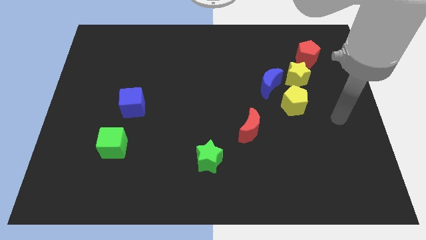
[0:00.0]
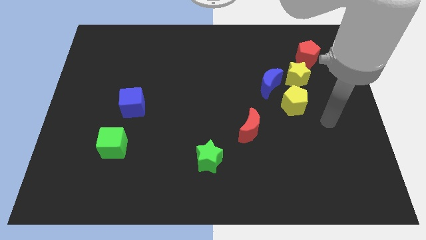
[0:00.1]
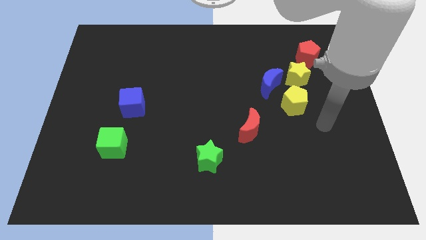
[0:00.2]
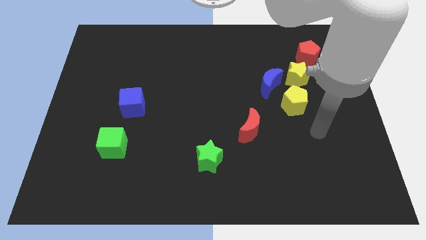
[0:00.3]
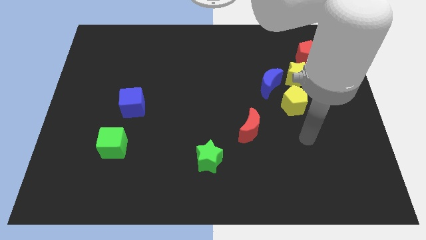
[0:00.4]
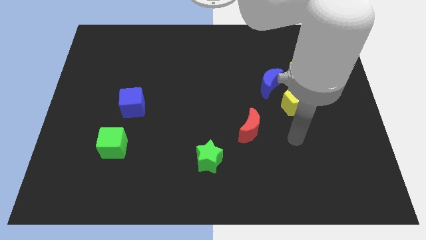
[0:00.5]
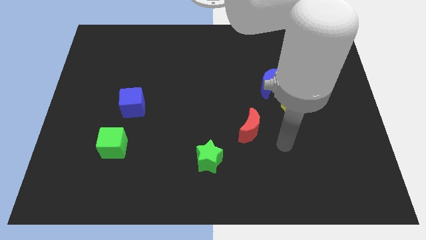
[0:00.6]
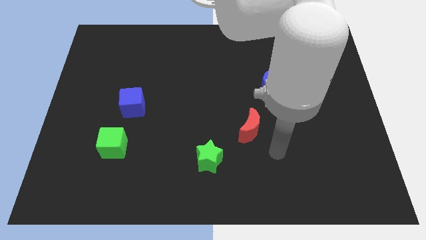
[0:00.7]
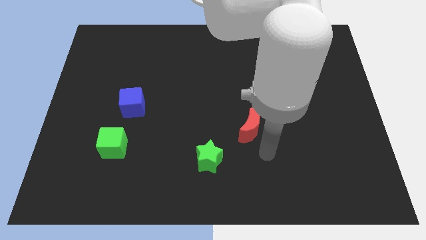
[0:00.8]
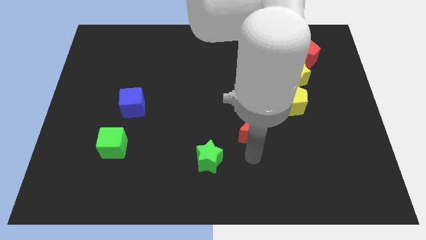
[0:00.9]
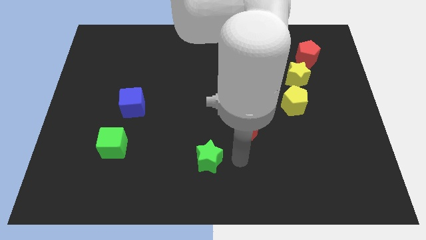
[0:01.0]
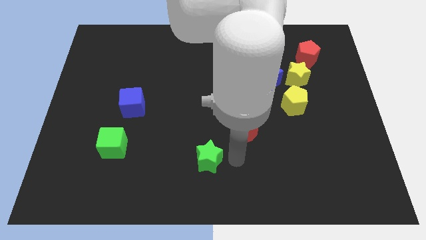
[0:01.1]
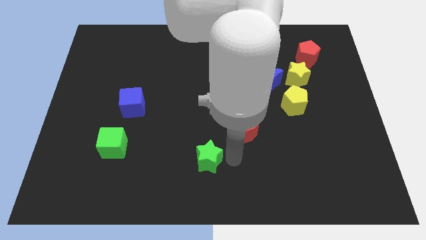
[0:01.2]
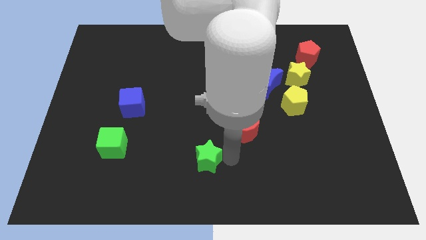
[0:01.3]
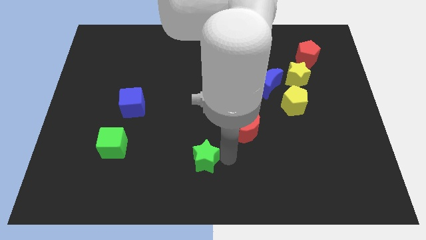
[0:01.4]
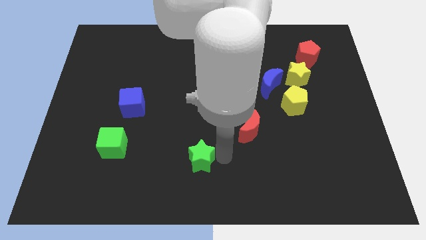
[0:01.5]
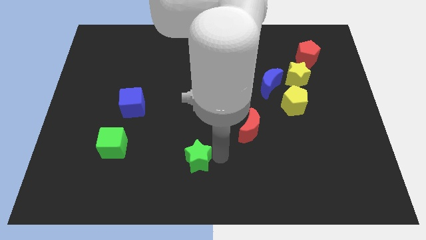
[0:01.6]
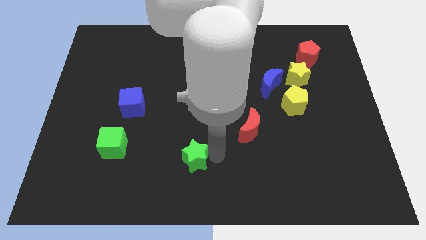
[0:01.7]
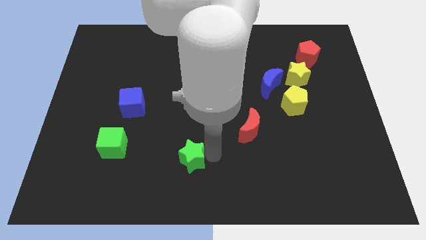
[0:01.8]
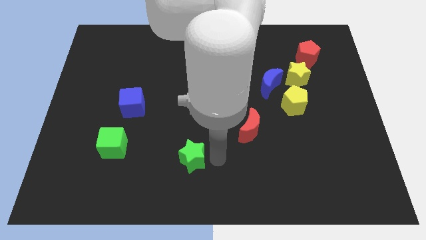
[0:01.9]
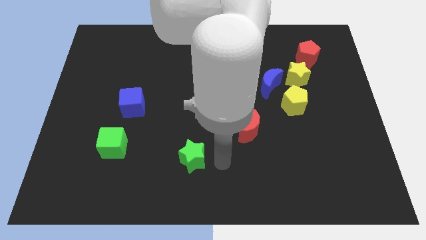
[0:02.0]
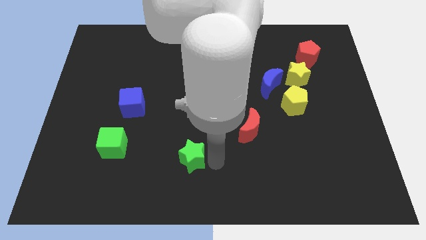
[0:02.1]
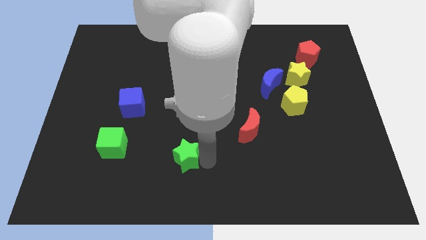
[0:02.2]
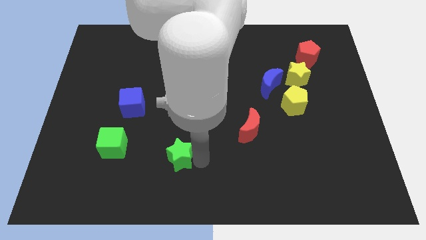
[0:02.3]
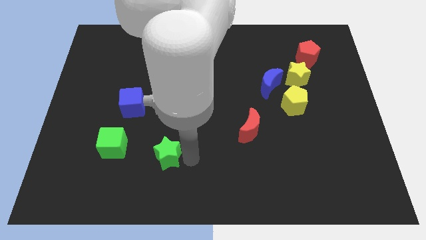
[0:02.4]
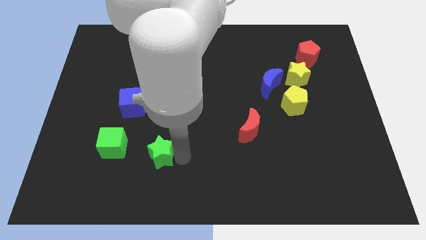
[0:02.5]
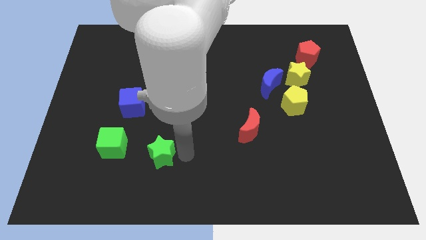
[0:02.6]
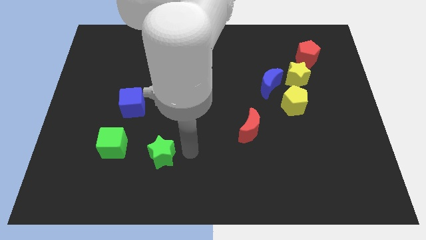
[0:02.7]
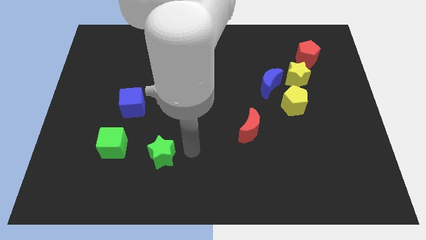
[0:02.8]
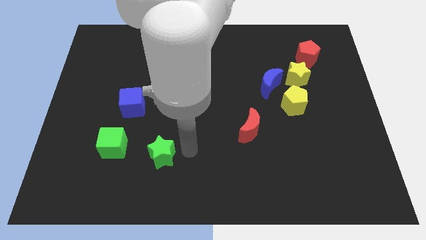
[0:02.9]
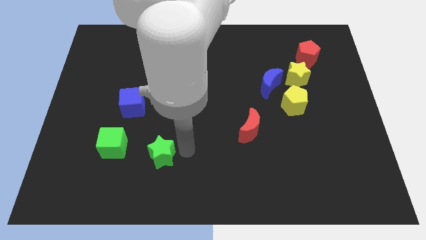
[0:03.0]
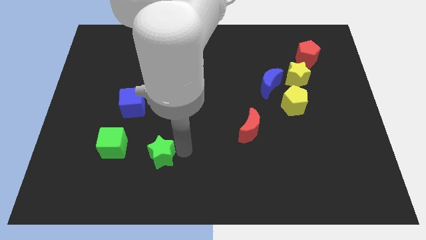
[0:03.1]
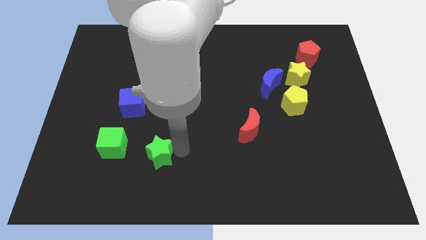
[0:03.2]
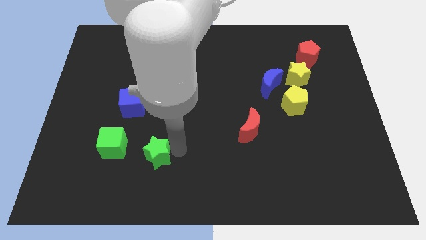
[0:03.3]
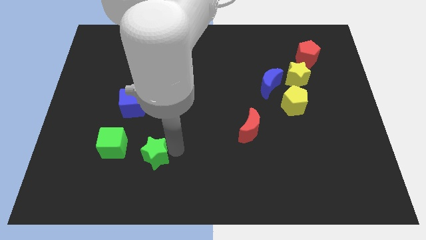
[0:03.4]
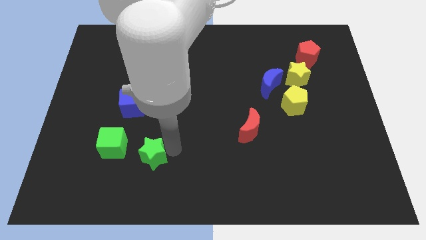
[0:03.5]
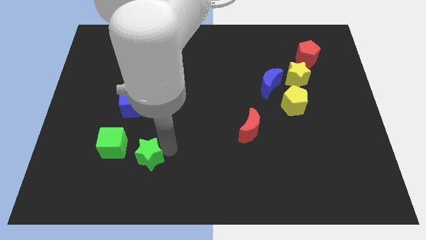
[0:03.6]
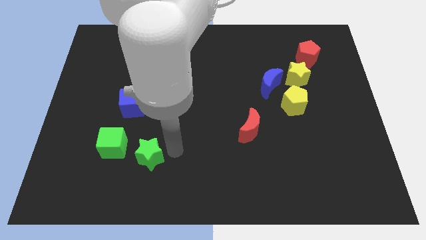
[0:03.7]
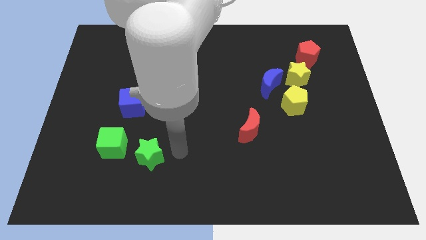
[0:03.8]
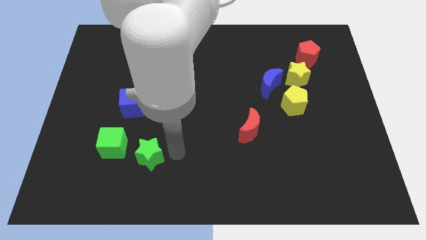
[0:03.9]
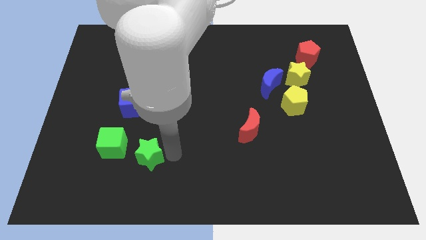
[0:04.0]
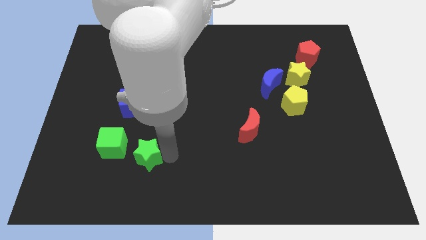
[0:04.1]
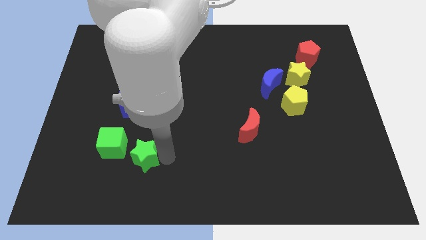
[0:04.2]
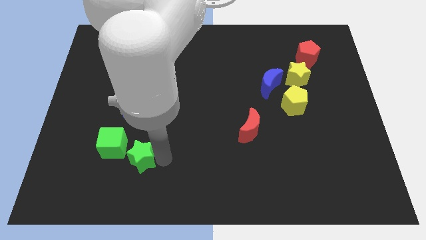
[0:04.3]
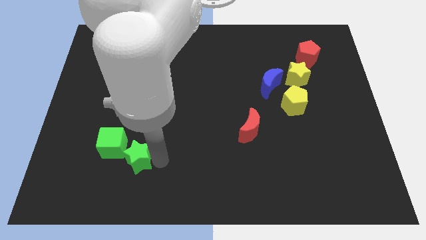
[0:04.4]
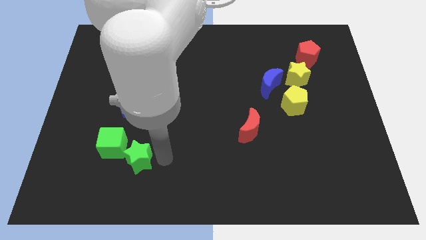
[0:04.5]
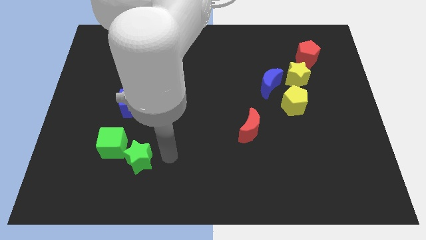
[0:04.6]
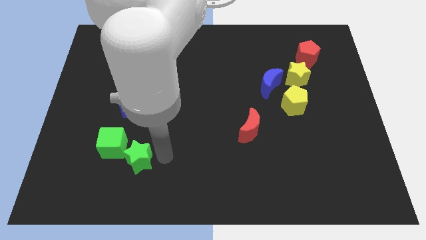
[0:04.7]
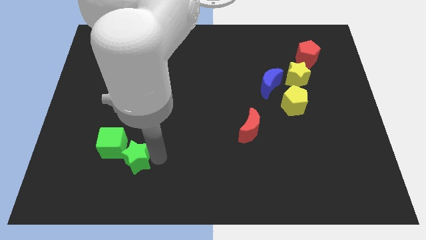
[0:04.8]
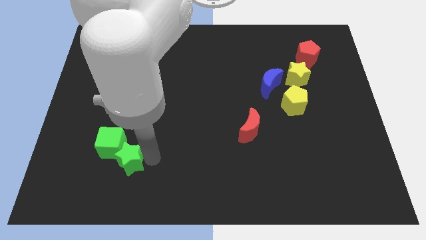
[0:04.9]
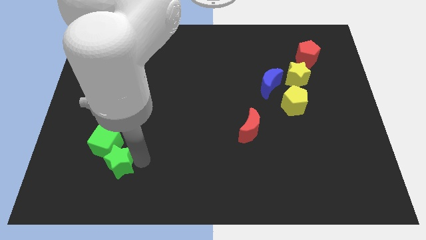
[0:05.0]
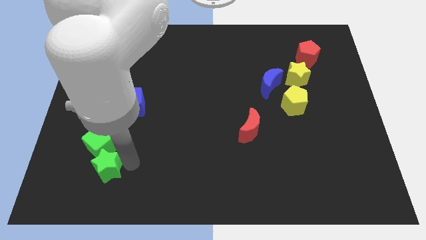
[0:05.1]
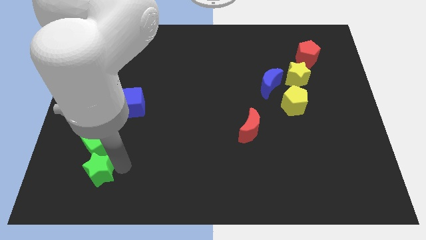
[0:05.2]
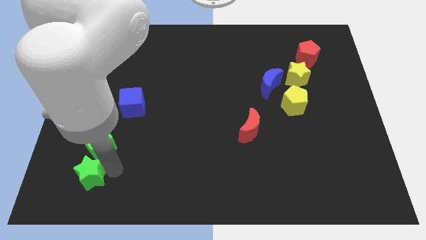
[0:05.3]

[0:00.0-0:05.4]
slide the green star diagonally down and to the left of the green cube

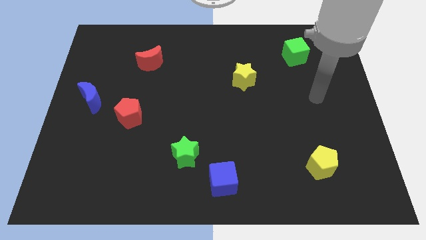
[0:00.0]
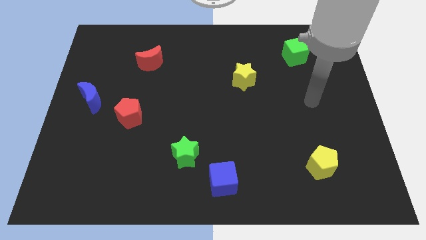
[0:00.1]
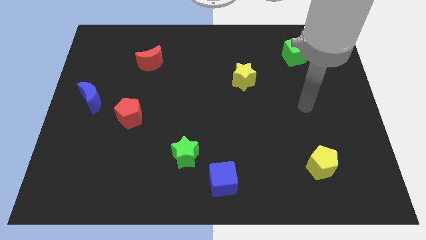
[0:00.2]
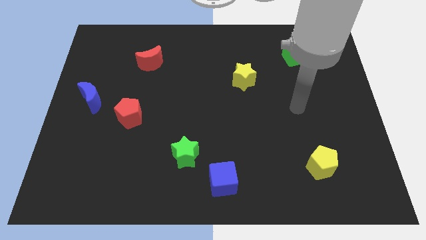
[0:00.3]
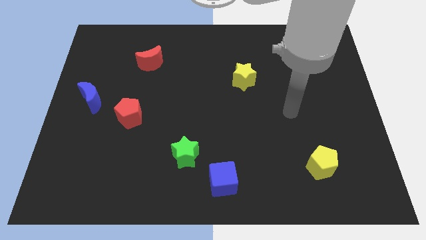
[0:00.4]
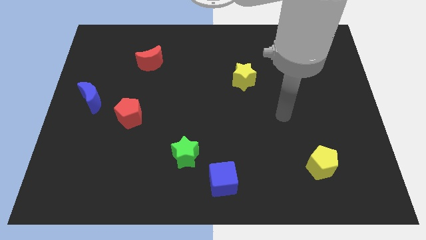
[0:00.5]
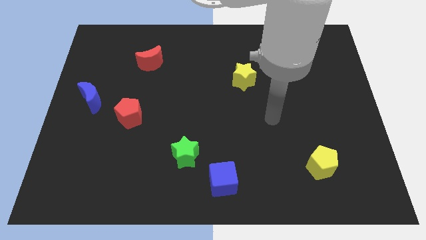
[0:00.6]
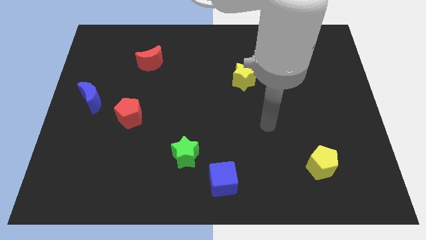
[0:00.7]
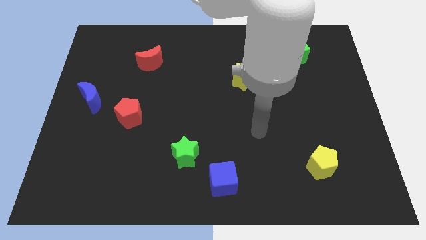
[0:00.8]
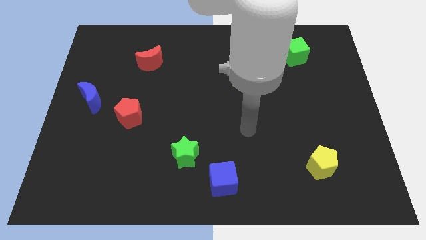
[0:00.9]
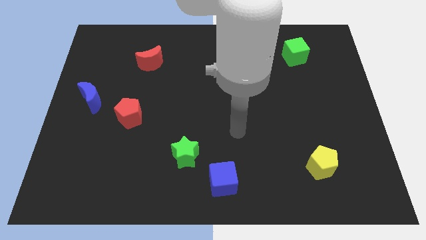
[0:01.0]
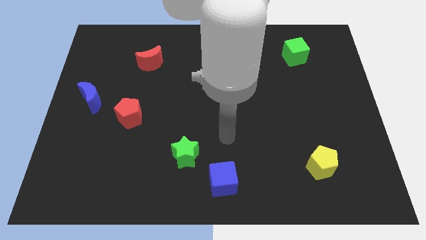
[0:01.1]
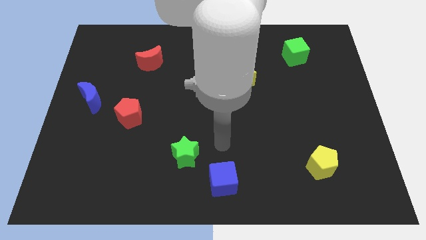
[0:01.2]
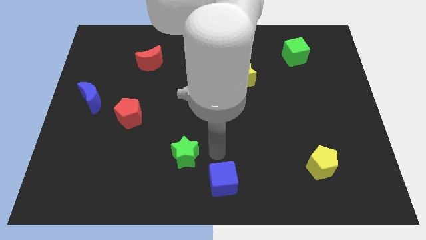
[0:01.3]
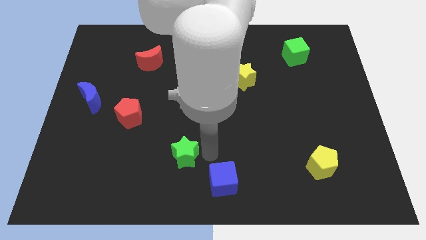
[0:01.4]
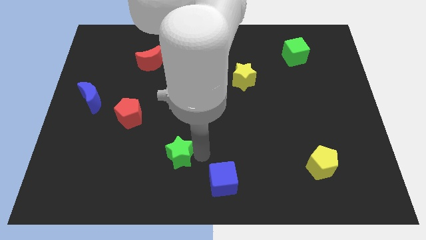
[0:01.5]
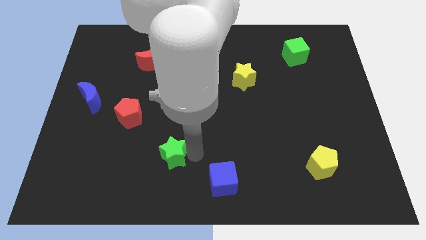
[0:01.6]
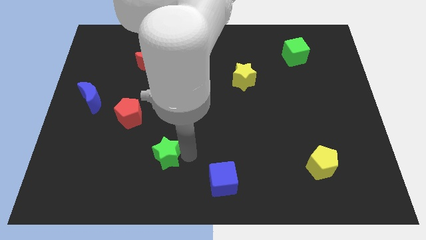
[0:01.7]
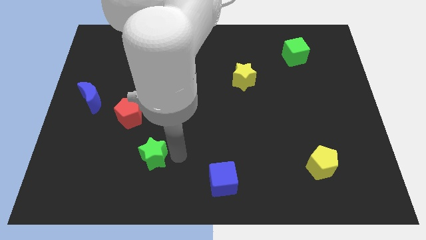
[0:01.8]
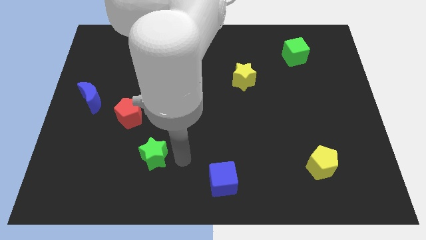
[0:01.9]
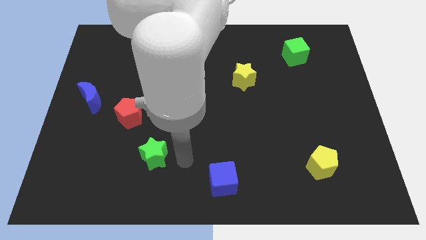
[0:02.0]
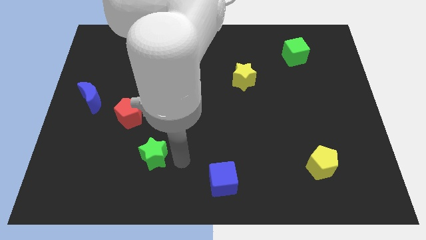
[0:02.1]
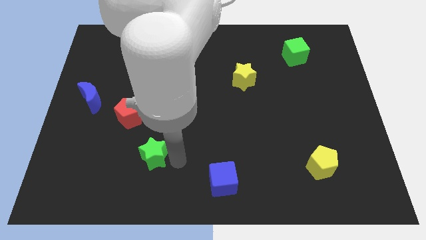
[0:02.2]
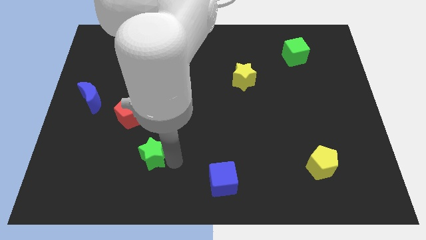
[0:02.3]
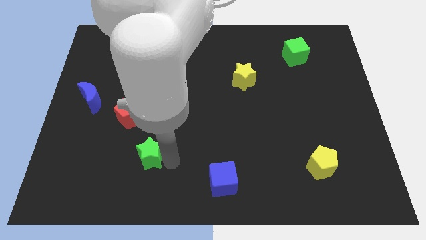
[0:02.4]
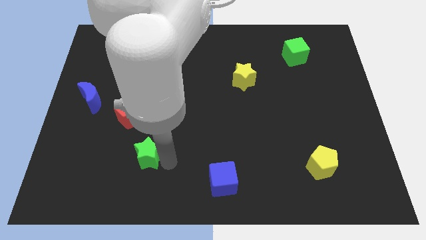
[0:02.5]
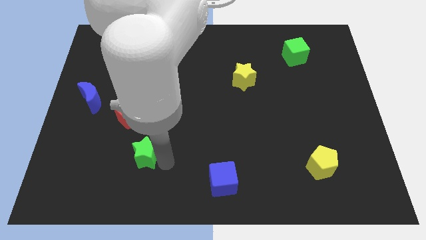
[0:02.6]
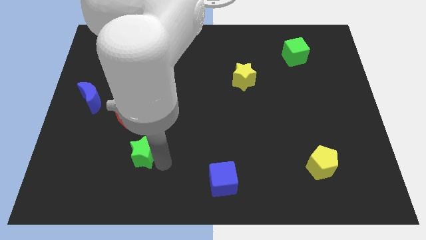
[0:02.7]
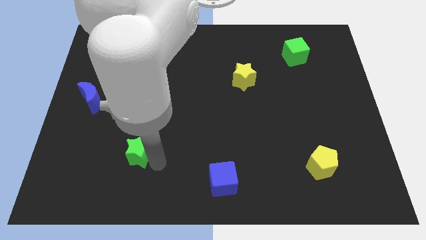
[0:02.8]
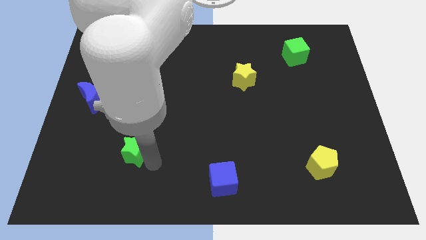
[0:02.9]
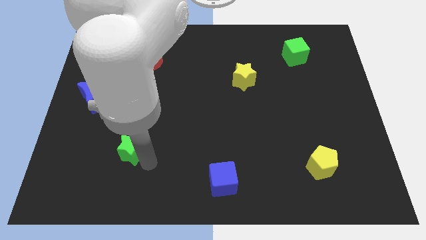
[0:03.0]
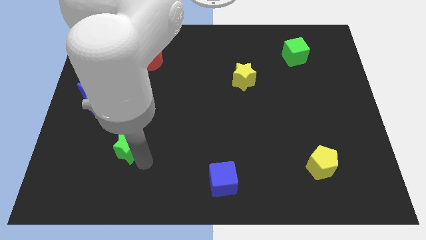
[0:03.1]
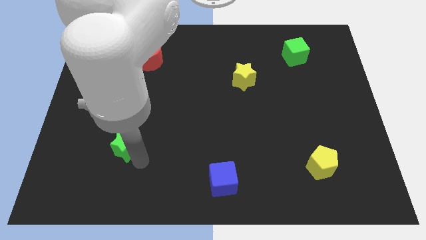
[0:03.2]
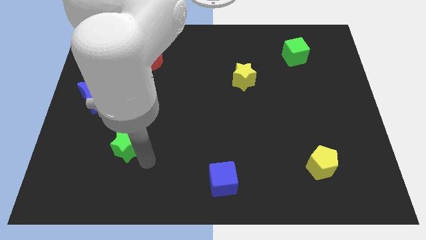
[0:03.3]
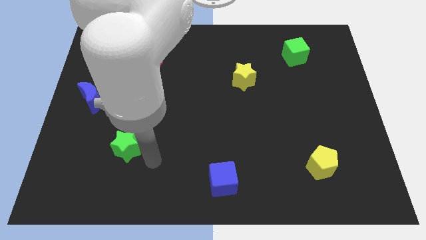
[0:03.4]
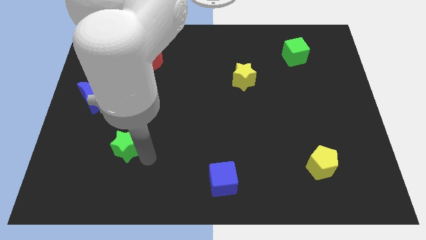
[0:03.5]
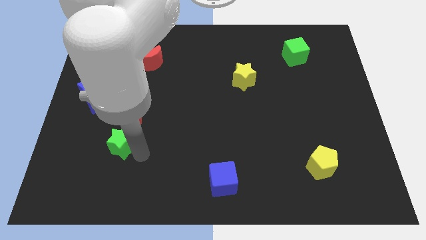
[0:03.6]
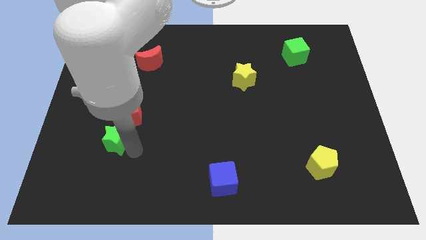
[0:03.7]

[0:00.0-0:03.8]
put the green star to the bottom left of the red pentagon
